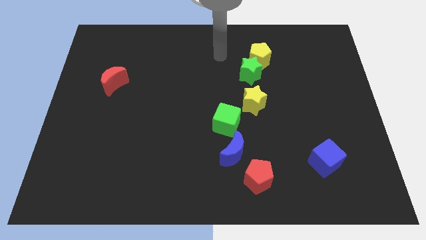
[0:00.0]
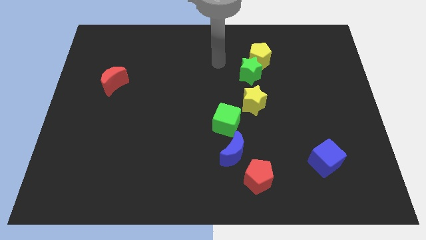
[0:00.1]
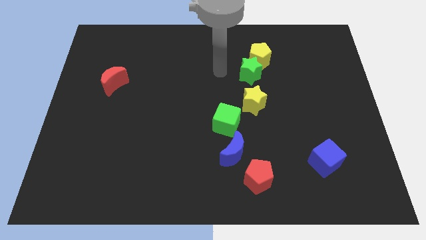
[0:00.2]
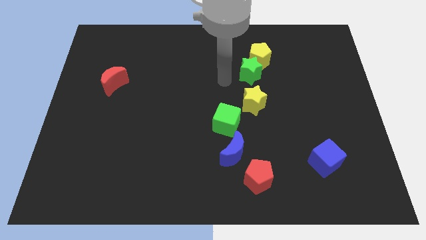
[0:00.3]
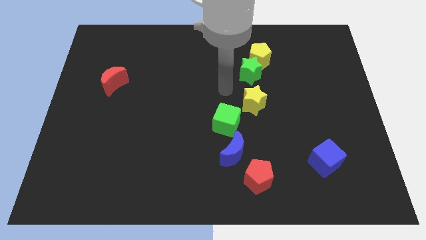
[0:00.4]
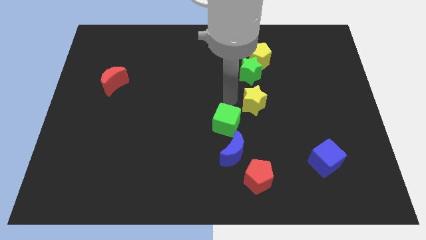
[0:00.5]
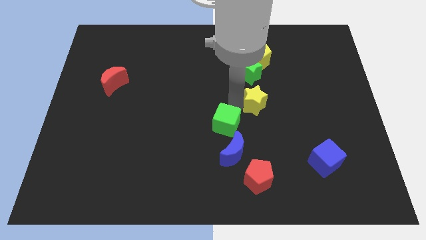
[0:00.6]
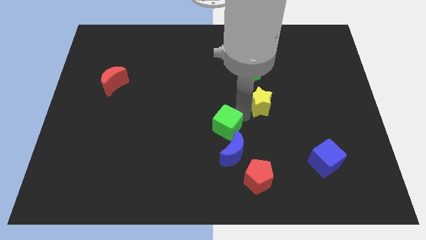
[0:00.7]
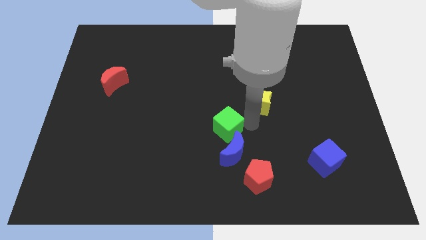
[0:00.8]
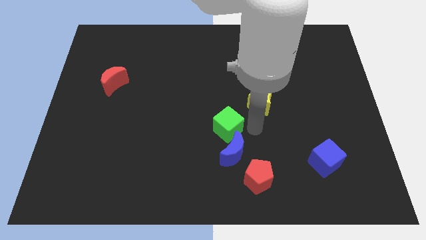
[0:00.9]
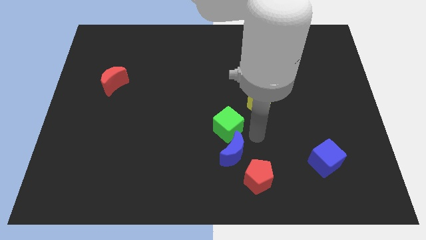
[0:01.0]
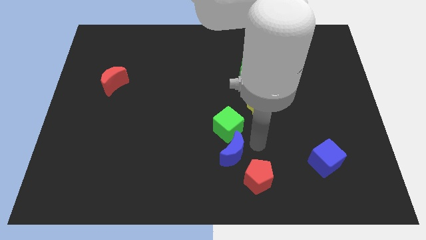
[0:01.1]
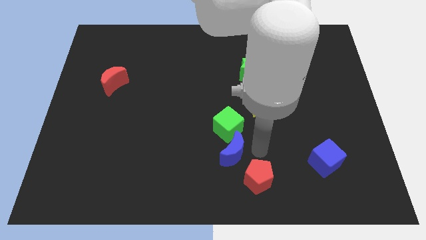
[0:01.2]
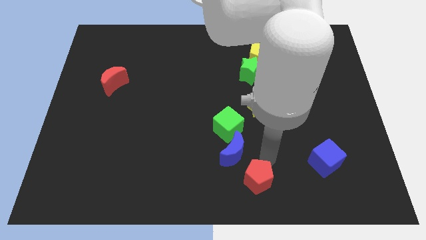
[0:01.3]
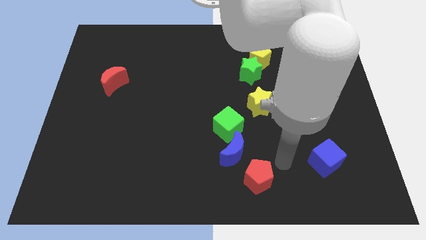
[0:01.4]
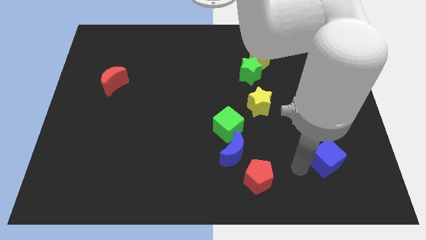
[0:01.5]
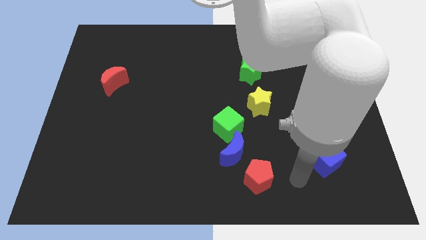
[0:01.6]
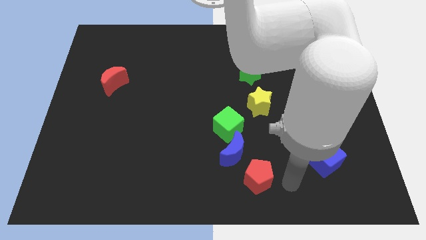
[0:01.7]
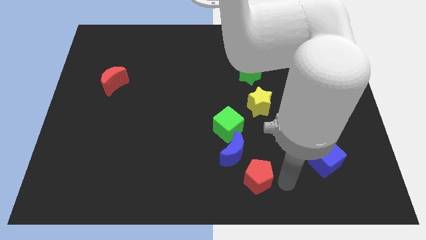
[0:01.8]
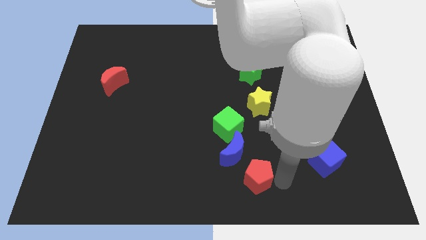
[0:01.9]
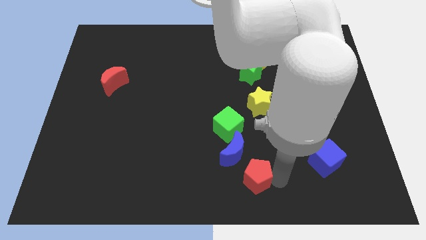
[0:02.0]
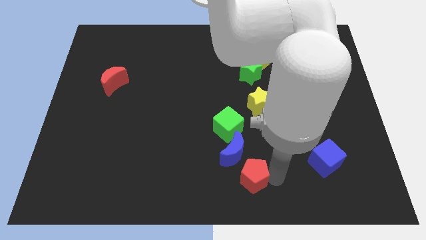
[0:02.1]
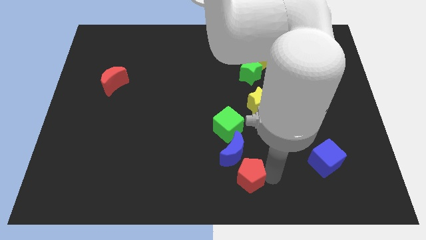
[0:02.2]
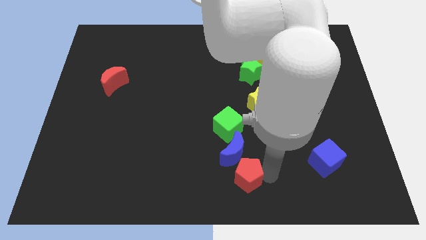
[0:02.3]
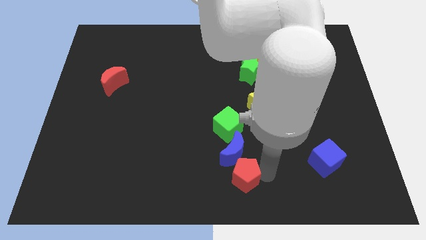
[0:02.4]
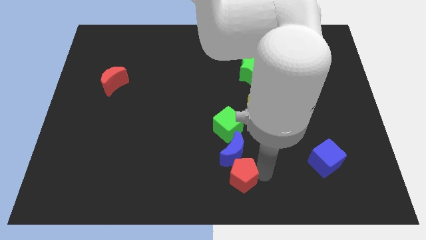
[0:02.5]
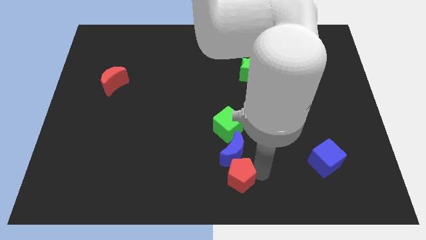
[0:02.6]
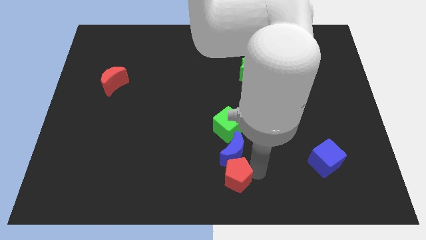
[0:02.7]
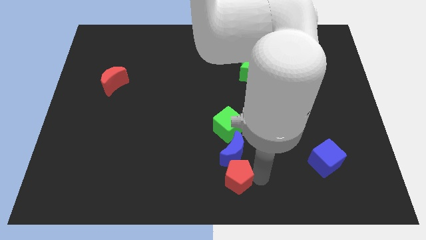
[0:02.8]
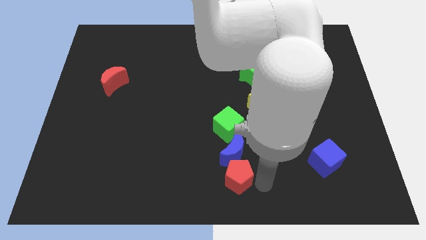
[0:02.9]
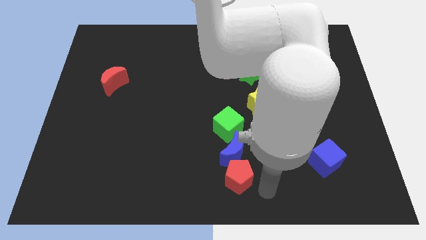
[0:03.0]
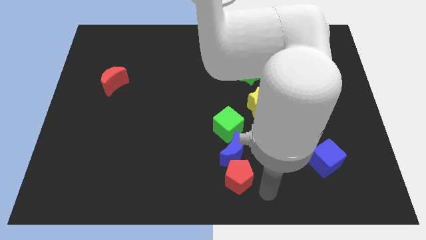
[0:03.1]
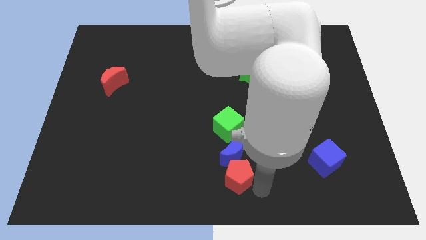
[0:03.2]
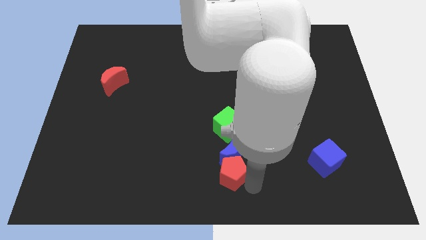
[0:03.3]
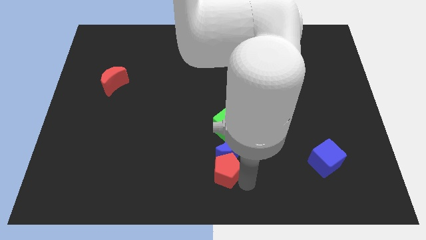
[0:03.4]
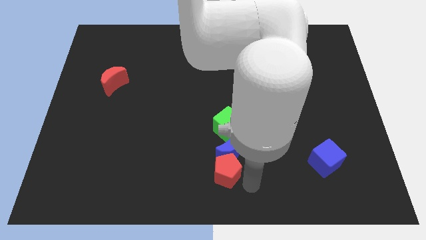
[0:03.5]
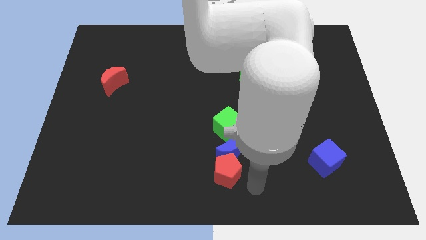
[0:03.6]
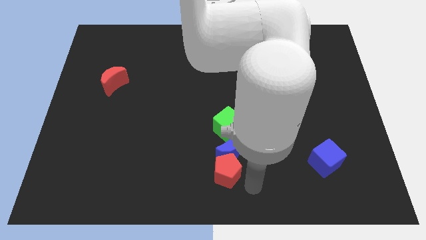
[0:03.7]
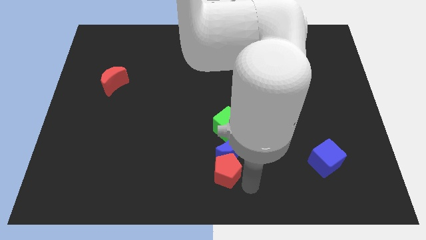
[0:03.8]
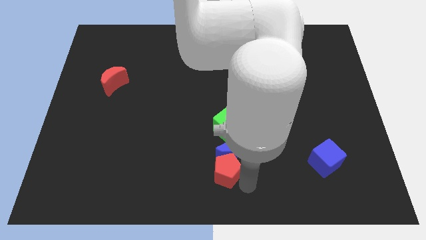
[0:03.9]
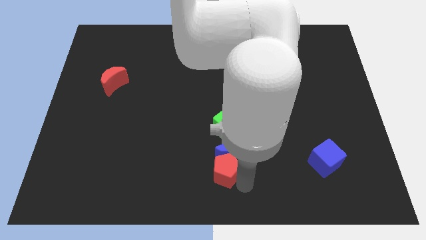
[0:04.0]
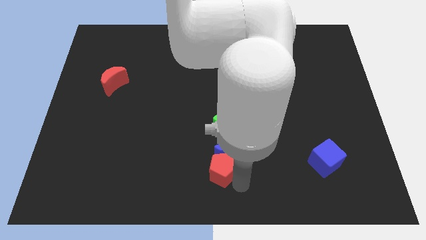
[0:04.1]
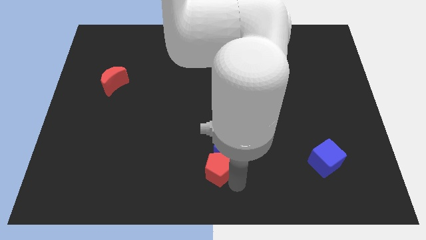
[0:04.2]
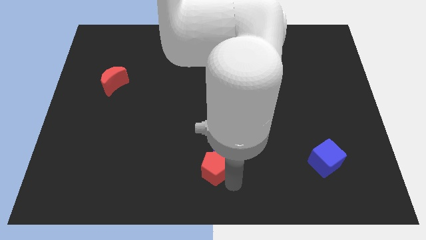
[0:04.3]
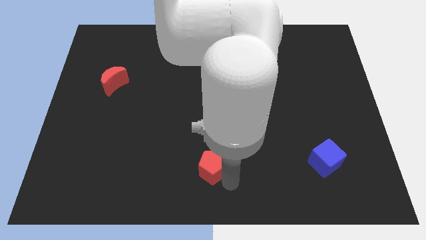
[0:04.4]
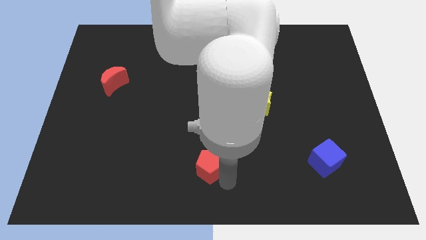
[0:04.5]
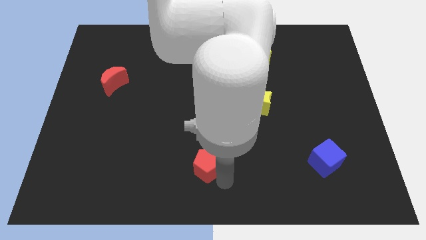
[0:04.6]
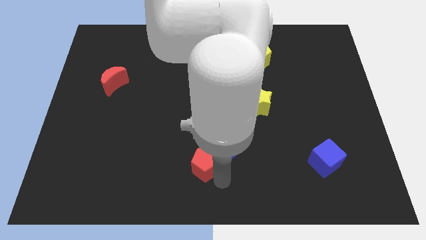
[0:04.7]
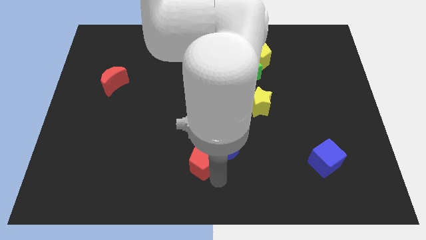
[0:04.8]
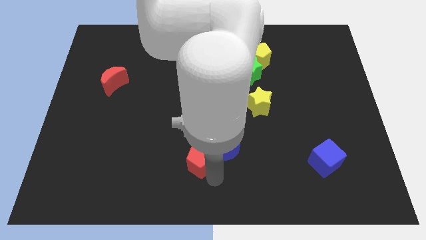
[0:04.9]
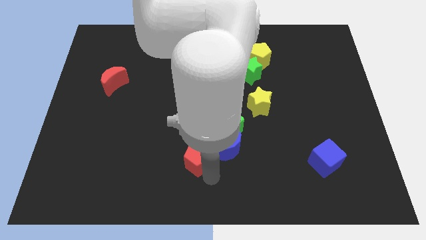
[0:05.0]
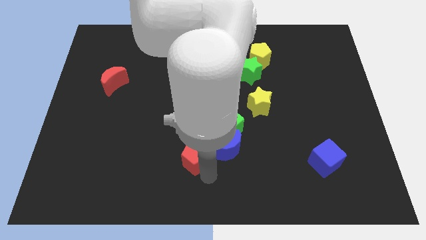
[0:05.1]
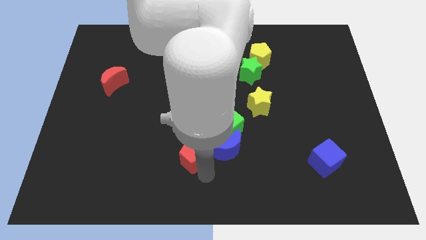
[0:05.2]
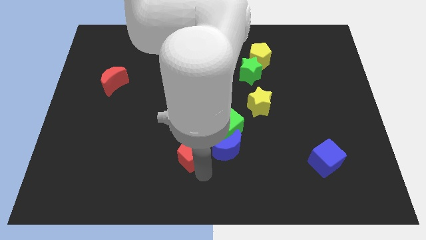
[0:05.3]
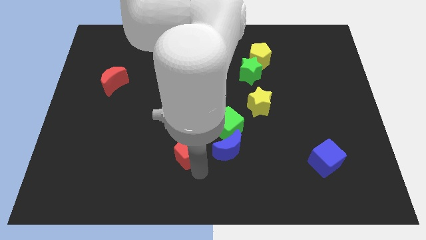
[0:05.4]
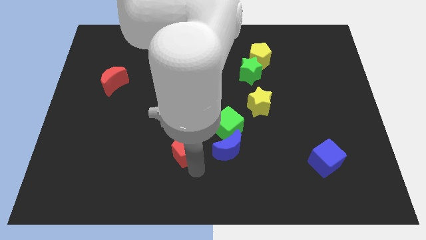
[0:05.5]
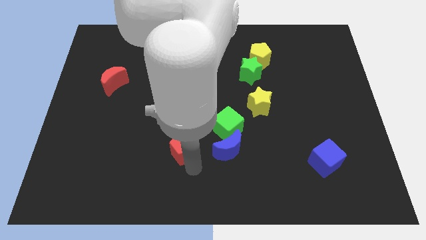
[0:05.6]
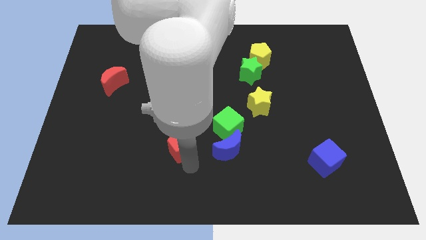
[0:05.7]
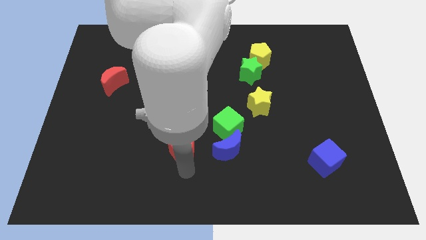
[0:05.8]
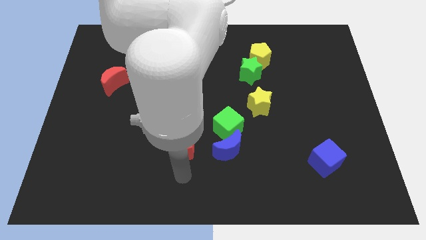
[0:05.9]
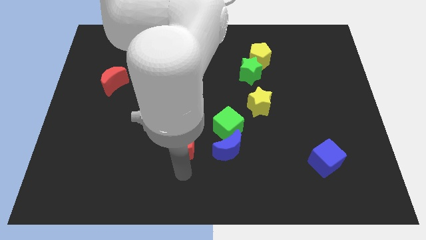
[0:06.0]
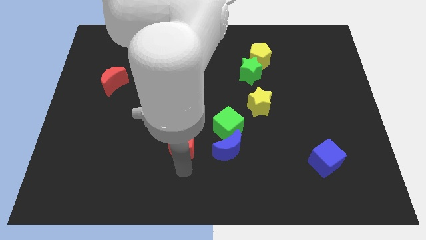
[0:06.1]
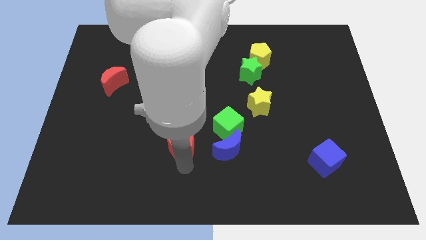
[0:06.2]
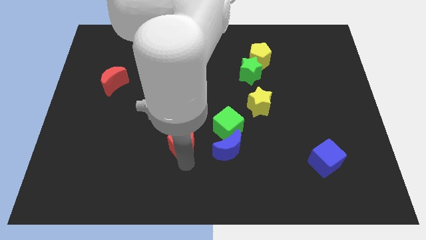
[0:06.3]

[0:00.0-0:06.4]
put the red pentagon to the left of the green cube

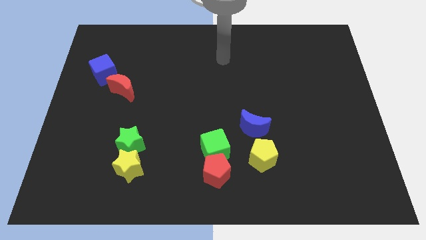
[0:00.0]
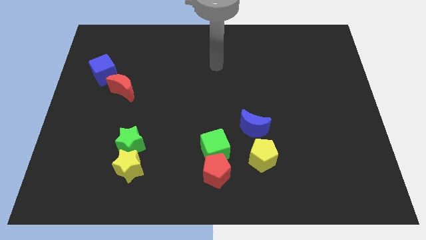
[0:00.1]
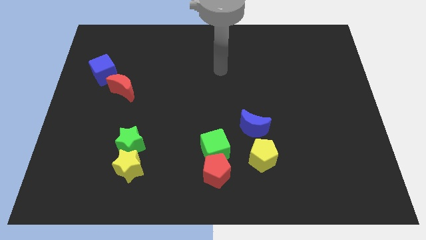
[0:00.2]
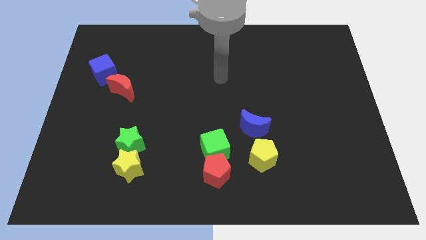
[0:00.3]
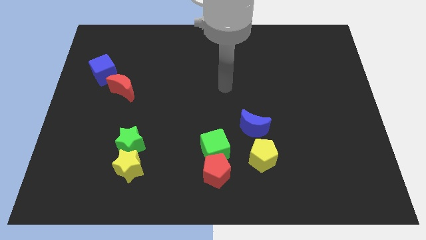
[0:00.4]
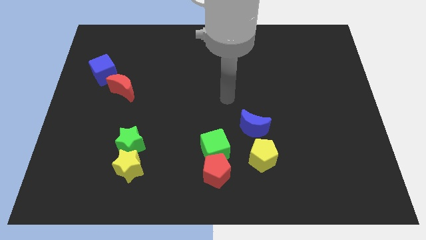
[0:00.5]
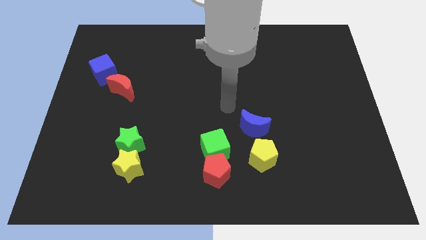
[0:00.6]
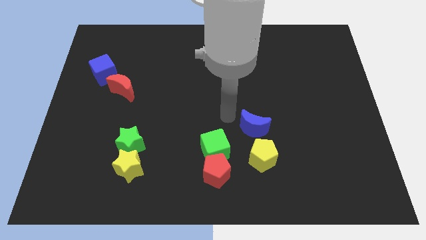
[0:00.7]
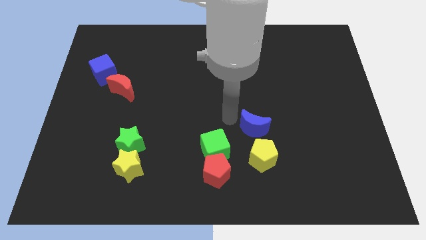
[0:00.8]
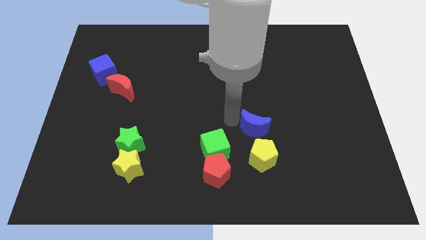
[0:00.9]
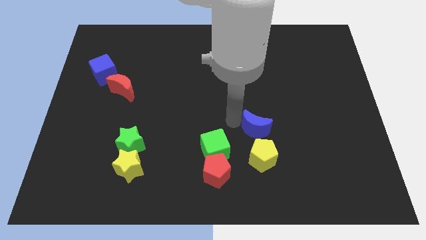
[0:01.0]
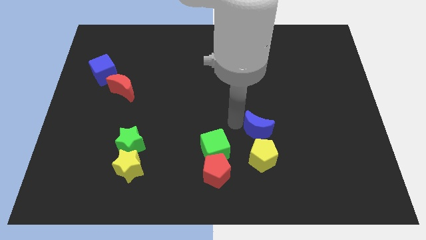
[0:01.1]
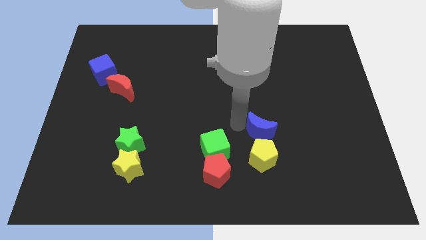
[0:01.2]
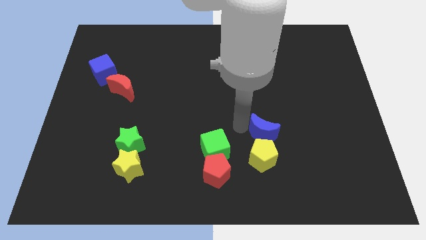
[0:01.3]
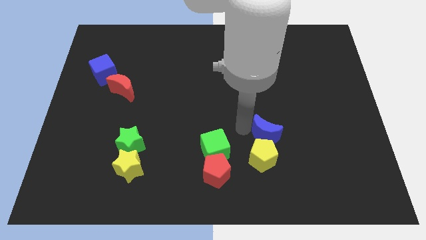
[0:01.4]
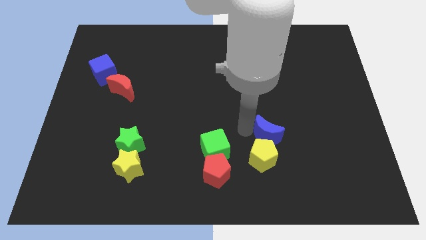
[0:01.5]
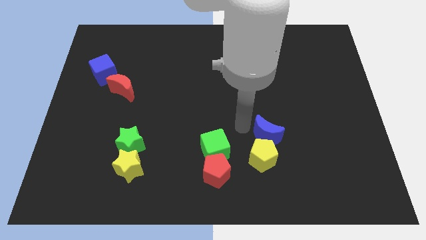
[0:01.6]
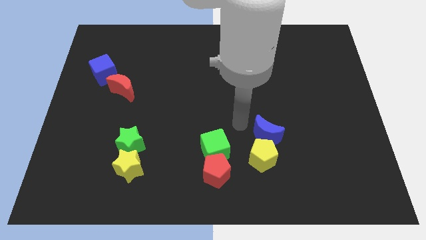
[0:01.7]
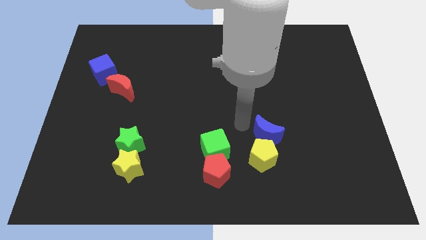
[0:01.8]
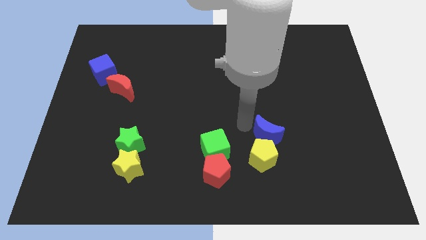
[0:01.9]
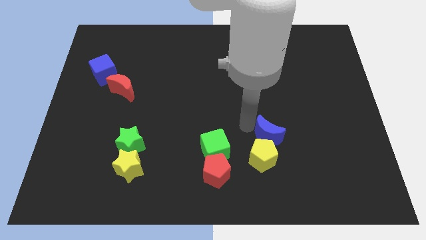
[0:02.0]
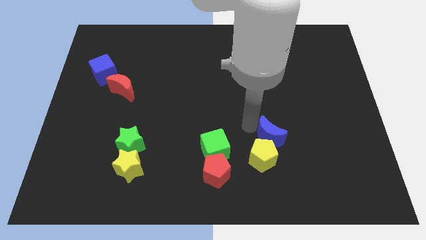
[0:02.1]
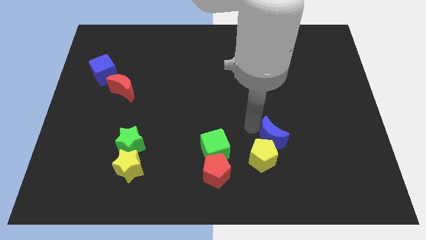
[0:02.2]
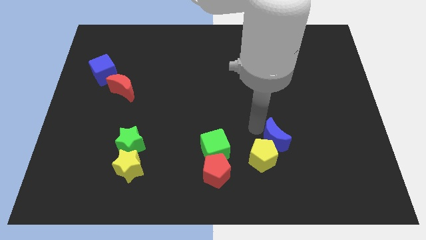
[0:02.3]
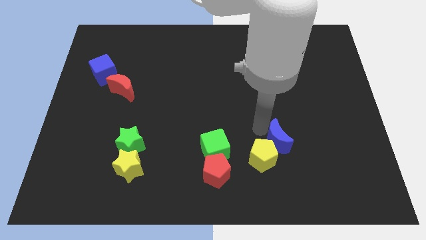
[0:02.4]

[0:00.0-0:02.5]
move the blue moon right of the yellow pentagon
